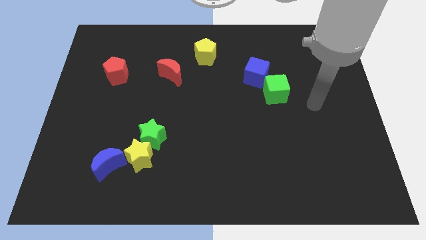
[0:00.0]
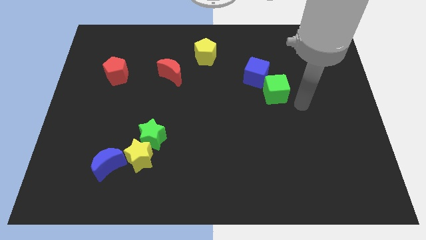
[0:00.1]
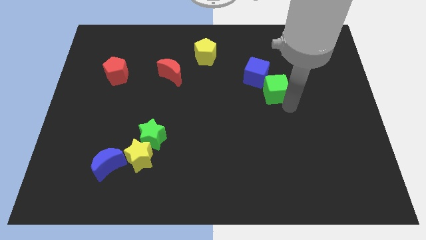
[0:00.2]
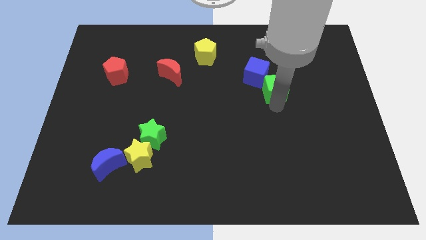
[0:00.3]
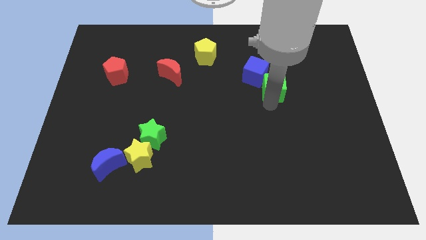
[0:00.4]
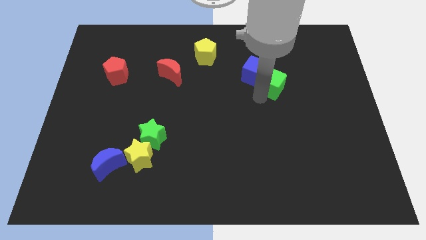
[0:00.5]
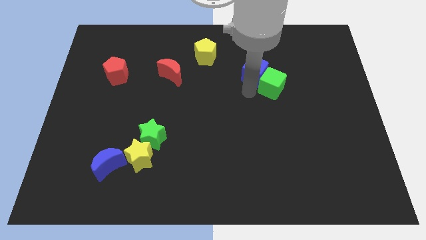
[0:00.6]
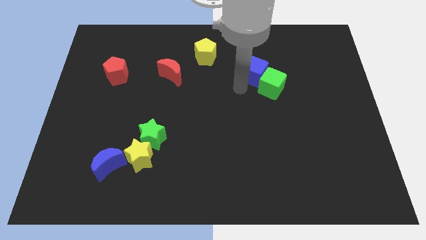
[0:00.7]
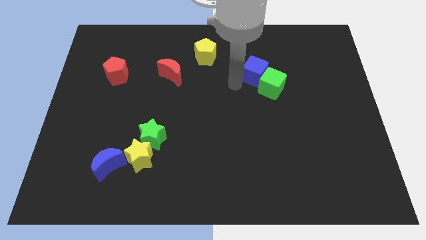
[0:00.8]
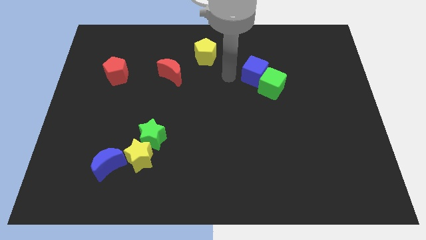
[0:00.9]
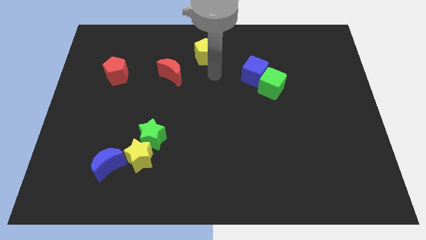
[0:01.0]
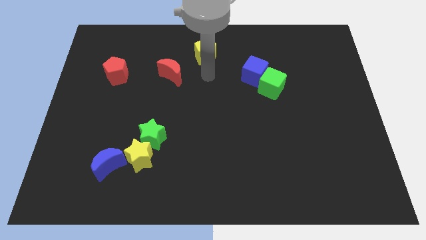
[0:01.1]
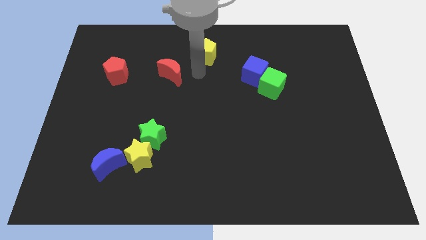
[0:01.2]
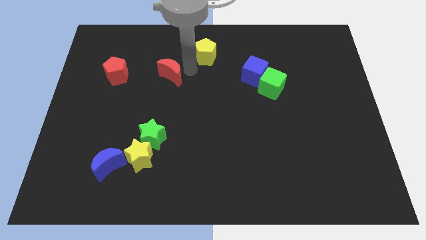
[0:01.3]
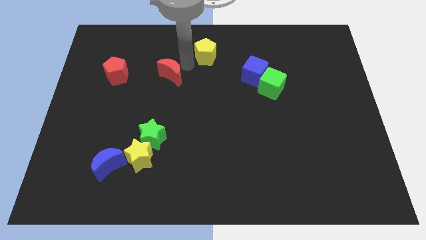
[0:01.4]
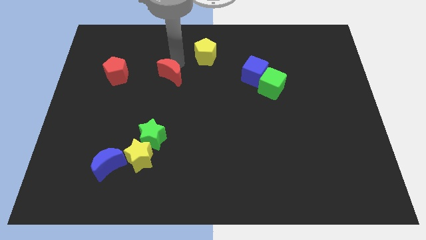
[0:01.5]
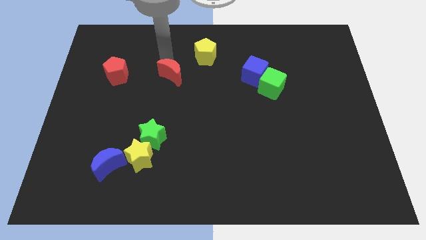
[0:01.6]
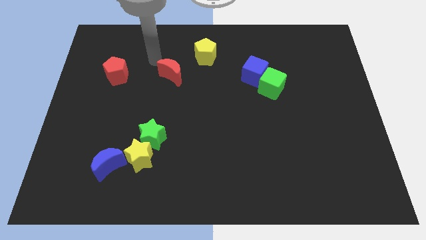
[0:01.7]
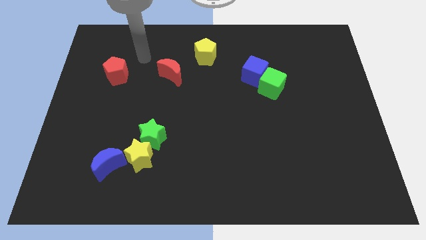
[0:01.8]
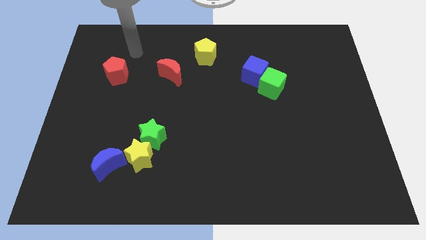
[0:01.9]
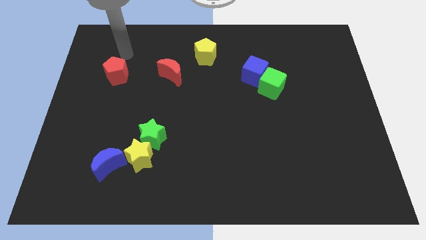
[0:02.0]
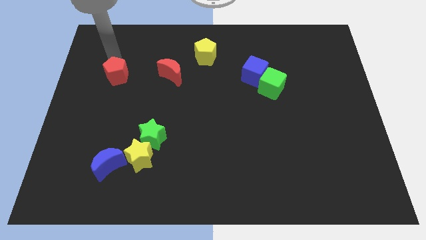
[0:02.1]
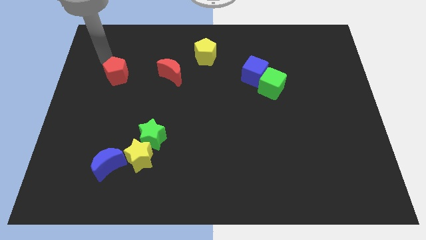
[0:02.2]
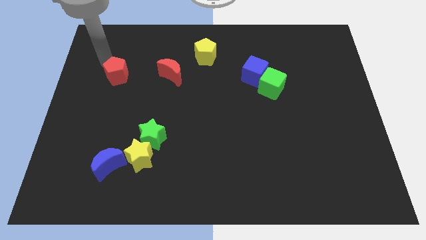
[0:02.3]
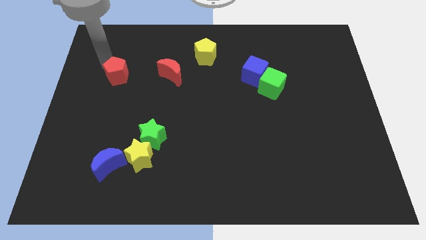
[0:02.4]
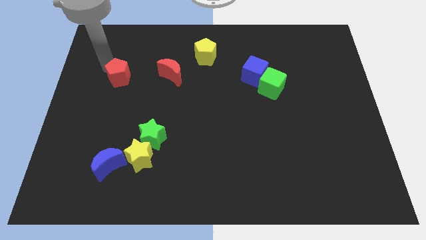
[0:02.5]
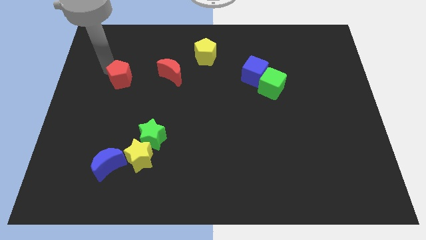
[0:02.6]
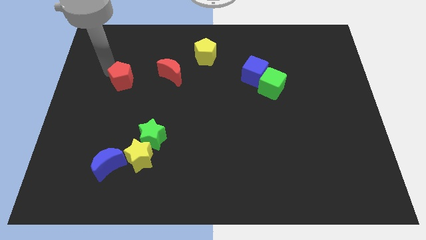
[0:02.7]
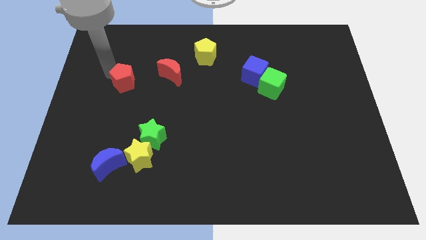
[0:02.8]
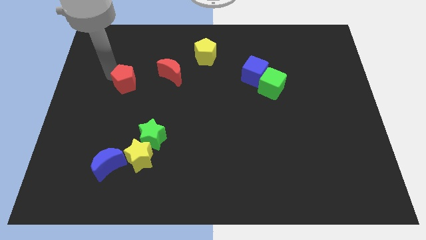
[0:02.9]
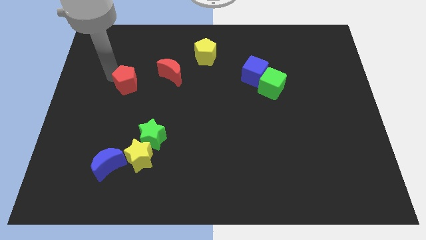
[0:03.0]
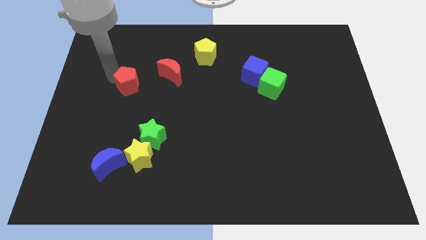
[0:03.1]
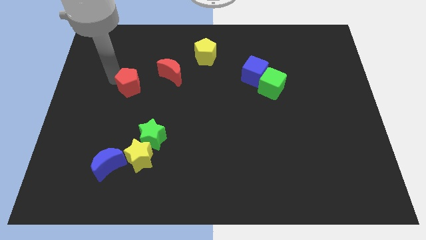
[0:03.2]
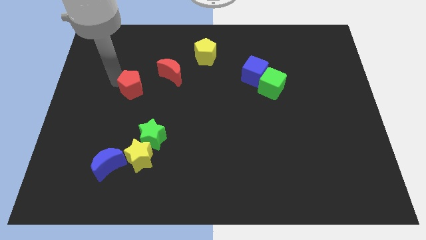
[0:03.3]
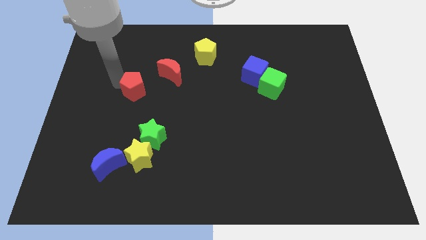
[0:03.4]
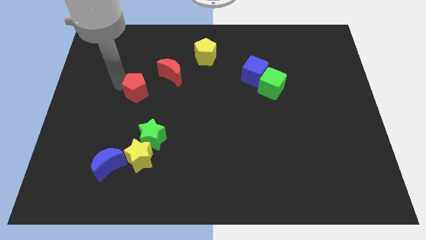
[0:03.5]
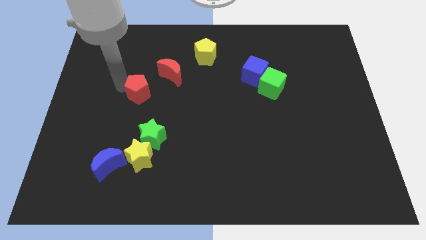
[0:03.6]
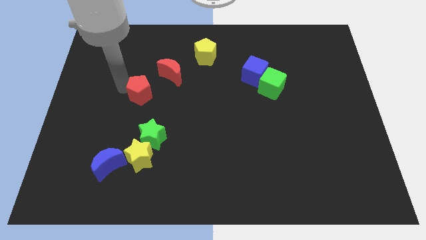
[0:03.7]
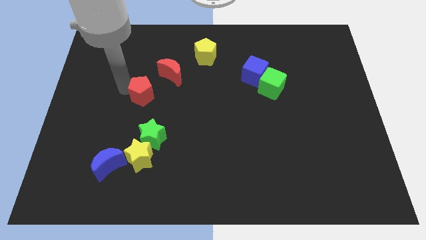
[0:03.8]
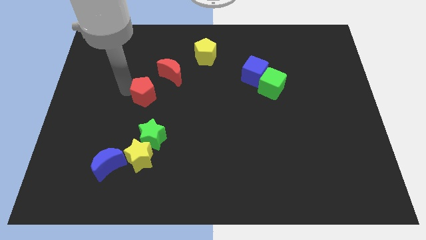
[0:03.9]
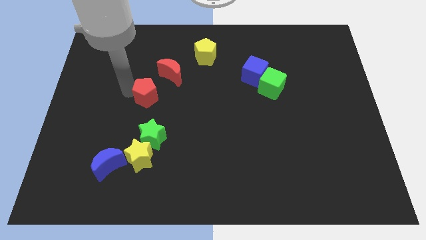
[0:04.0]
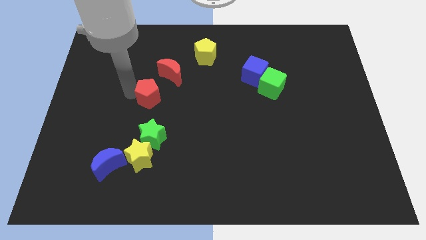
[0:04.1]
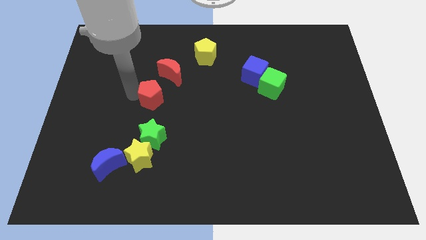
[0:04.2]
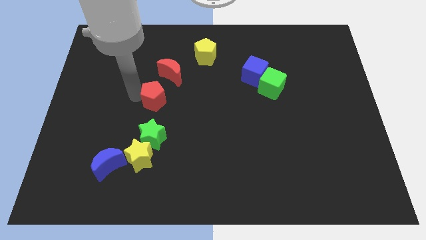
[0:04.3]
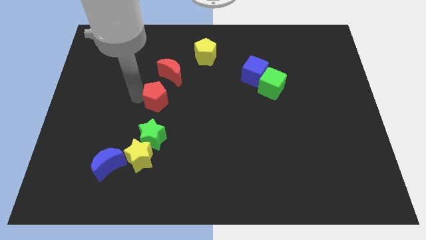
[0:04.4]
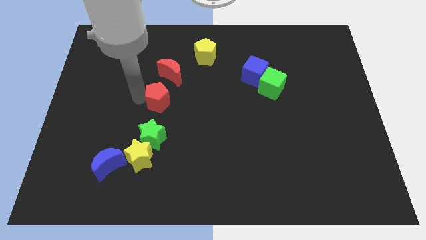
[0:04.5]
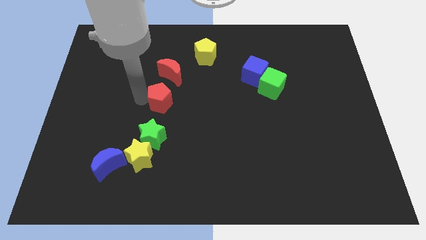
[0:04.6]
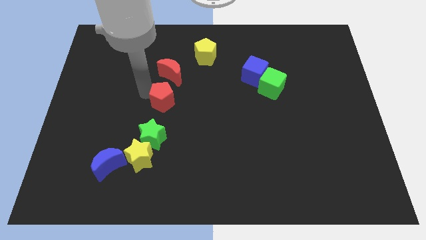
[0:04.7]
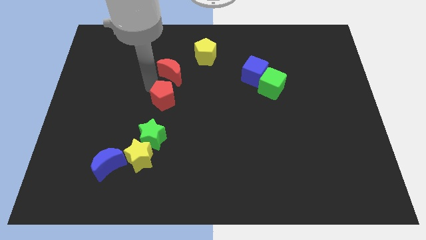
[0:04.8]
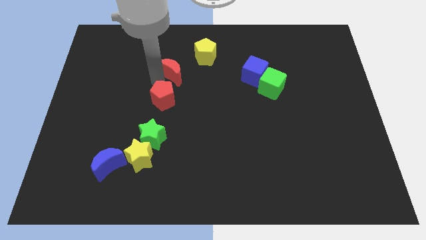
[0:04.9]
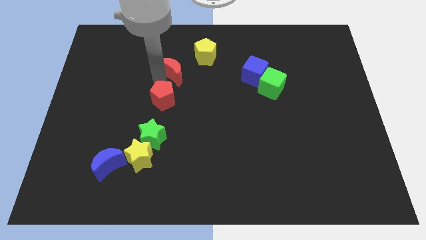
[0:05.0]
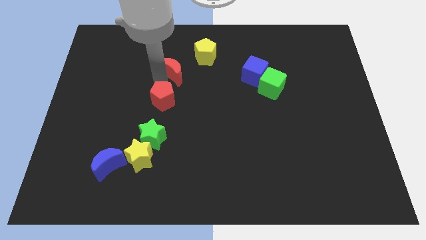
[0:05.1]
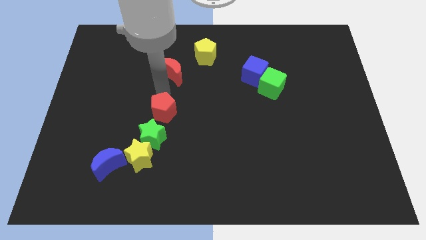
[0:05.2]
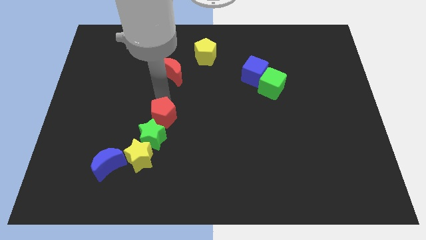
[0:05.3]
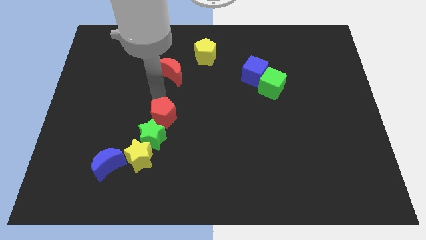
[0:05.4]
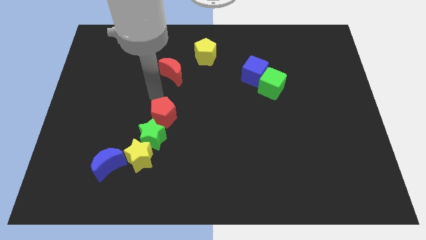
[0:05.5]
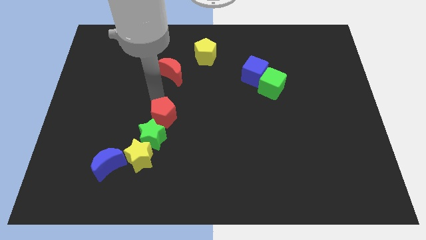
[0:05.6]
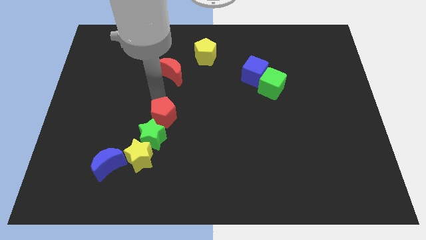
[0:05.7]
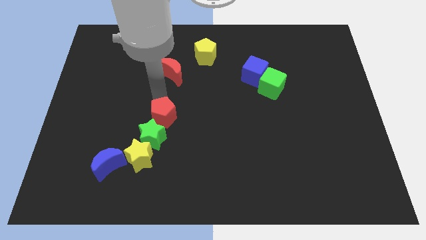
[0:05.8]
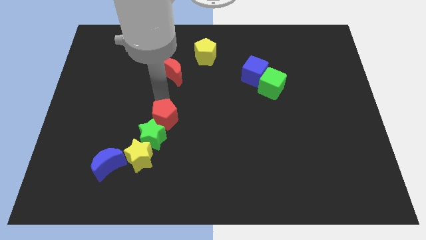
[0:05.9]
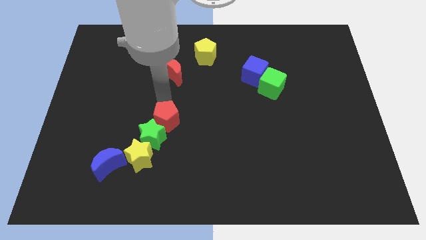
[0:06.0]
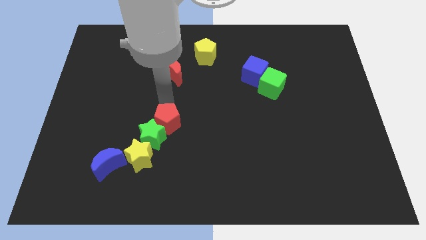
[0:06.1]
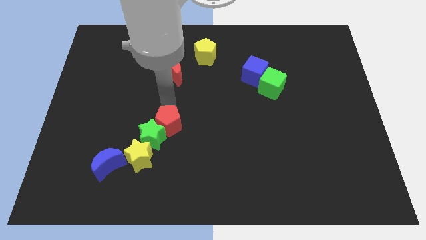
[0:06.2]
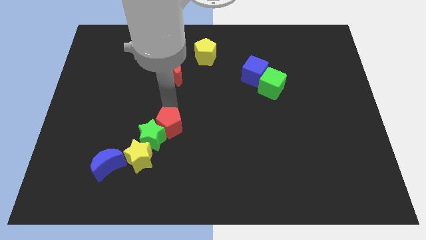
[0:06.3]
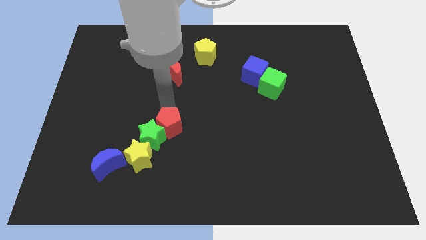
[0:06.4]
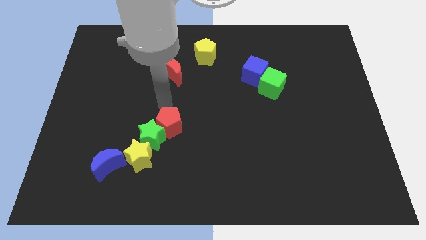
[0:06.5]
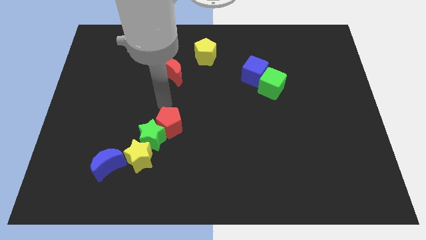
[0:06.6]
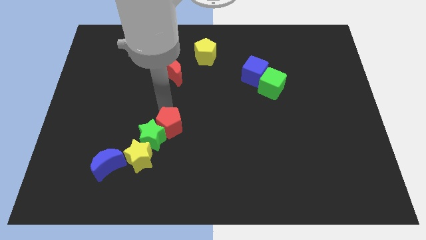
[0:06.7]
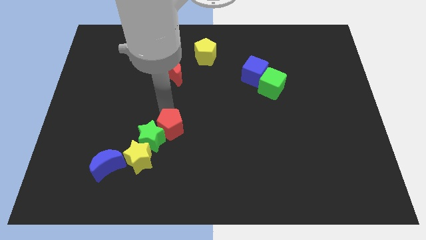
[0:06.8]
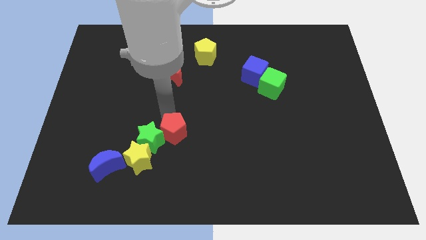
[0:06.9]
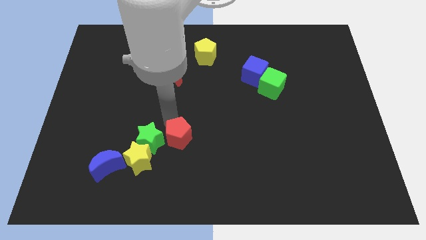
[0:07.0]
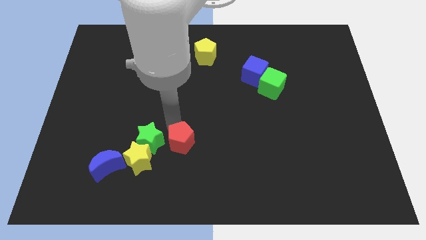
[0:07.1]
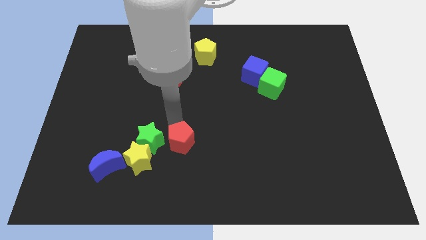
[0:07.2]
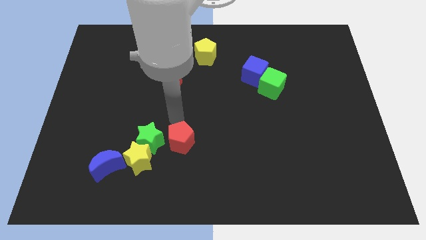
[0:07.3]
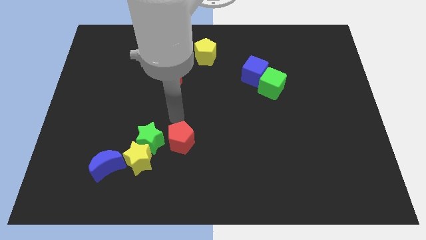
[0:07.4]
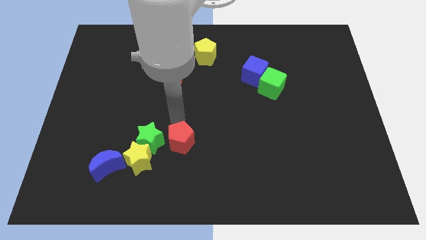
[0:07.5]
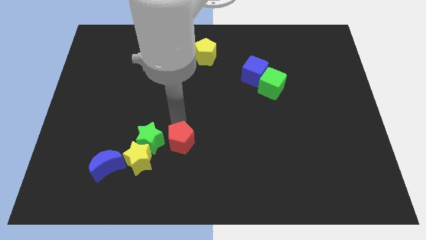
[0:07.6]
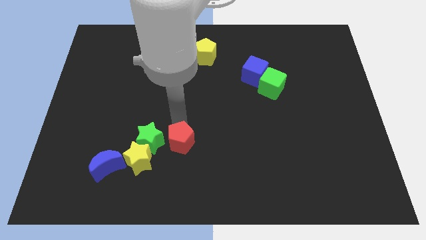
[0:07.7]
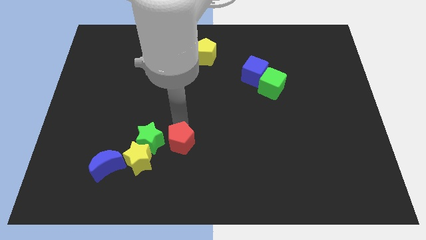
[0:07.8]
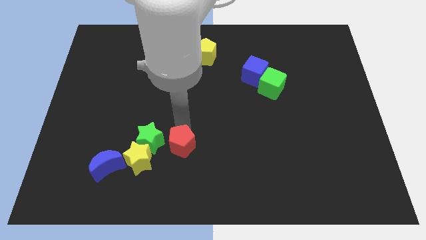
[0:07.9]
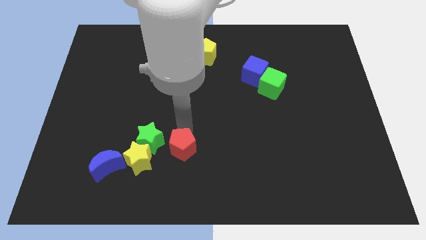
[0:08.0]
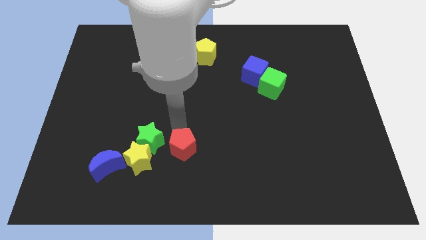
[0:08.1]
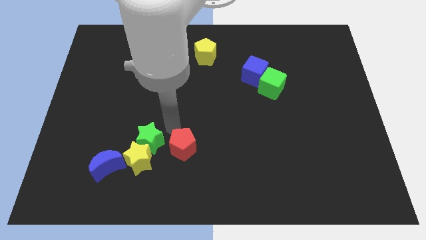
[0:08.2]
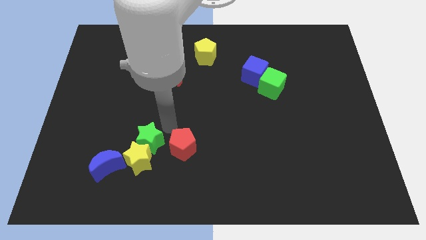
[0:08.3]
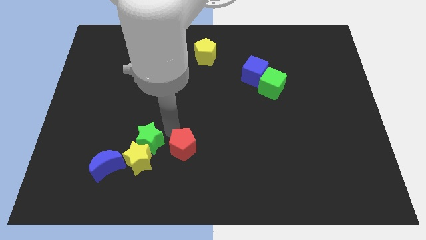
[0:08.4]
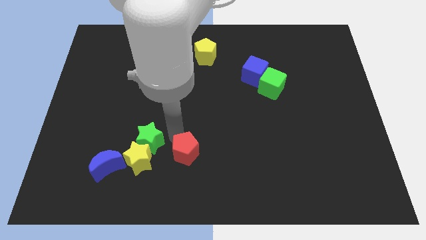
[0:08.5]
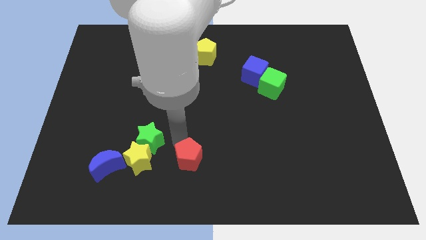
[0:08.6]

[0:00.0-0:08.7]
put the red pentagon to the bottom
